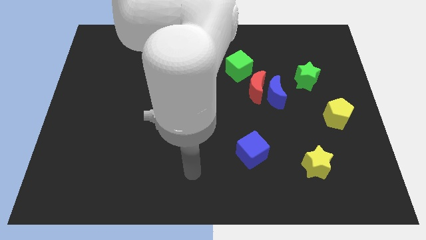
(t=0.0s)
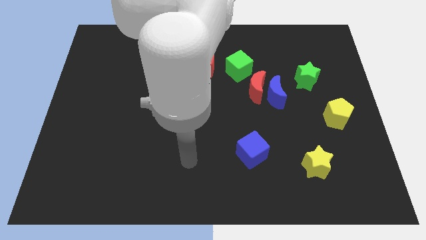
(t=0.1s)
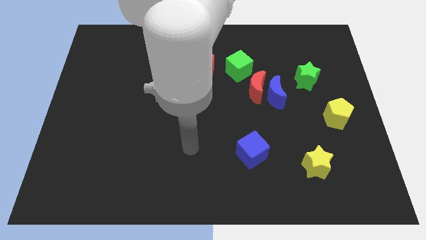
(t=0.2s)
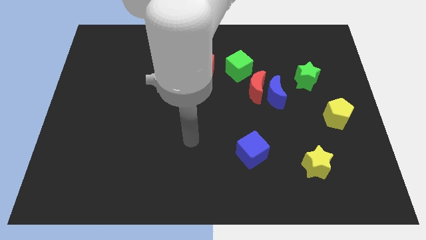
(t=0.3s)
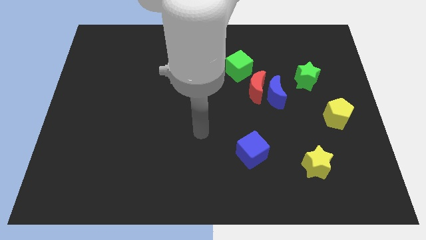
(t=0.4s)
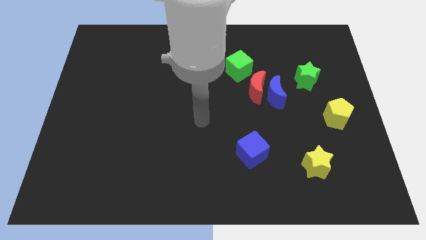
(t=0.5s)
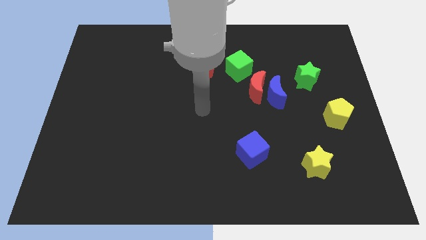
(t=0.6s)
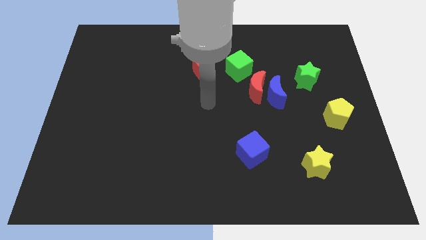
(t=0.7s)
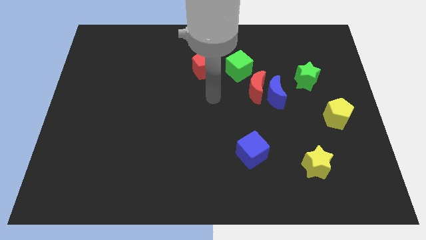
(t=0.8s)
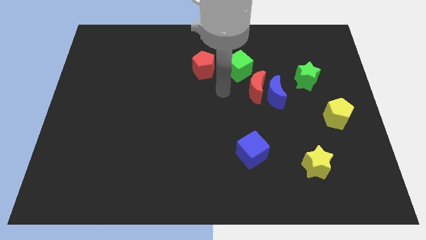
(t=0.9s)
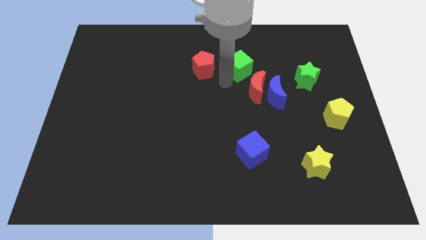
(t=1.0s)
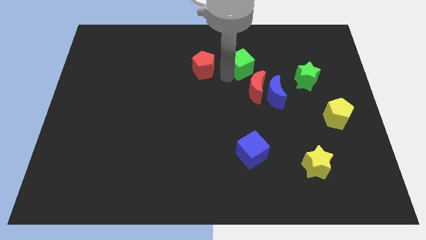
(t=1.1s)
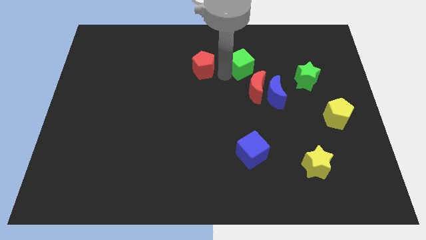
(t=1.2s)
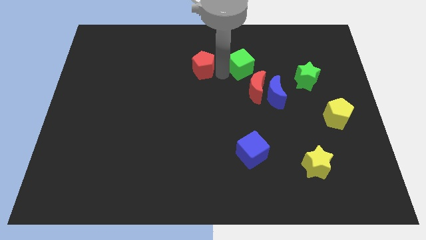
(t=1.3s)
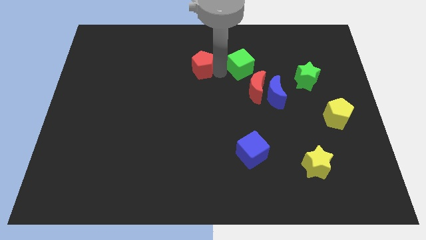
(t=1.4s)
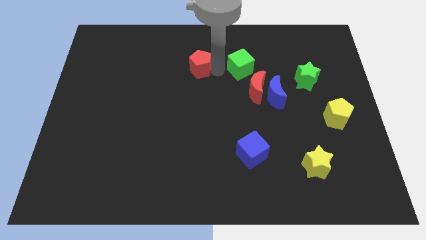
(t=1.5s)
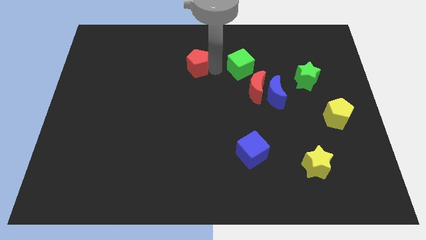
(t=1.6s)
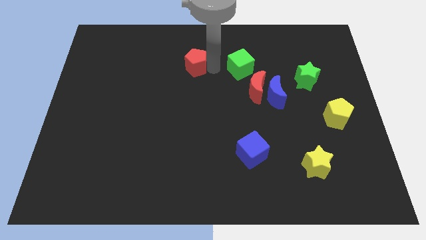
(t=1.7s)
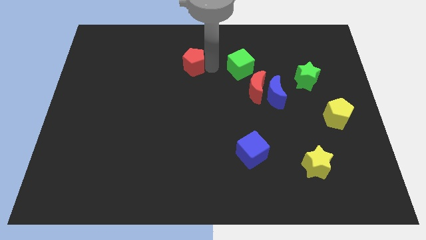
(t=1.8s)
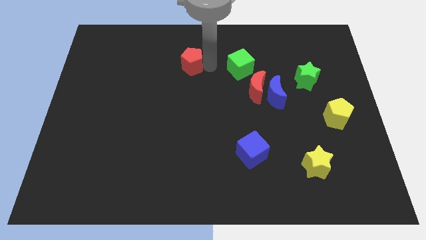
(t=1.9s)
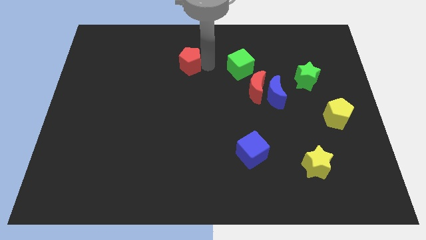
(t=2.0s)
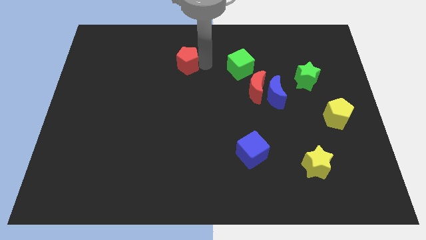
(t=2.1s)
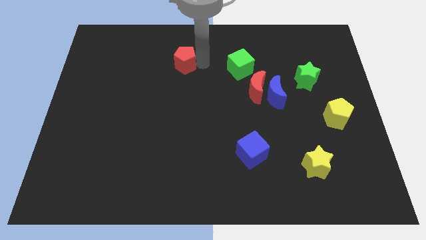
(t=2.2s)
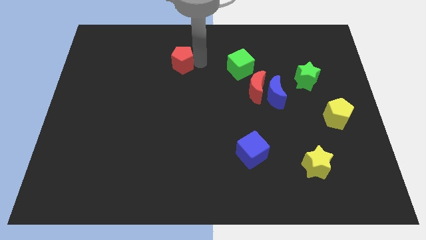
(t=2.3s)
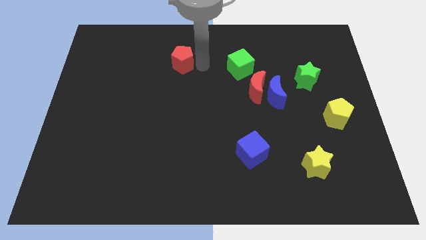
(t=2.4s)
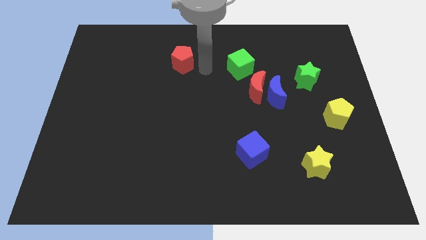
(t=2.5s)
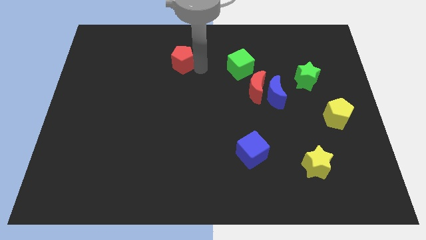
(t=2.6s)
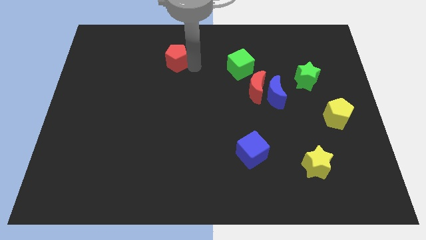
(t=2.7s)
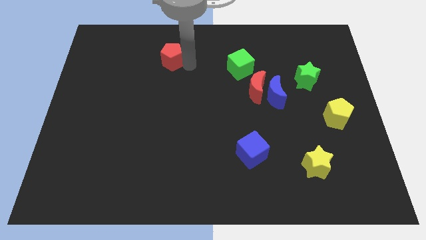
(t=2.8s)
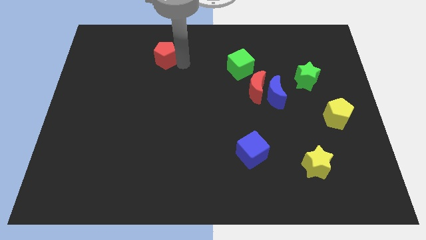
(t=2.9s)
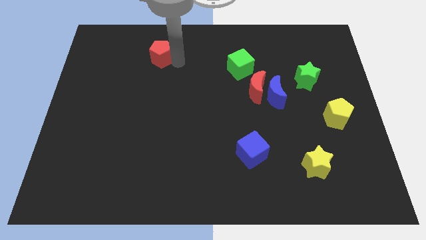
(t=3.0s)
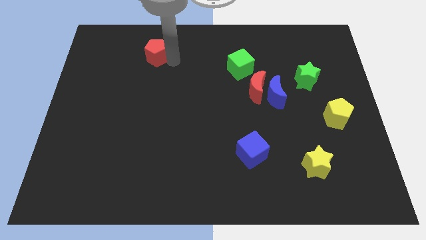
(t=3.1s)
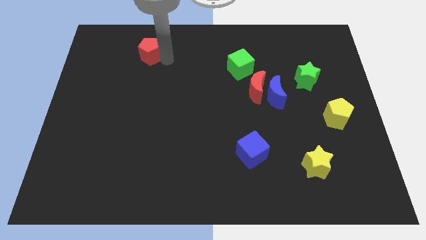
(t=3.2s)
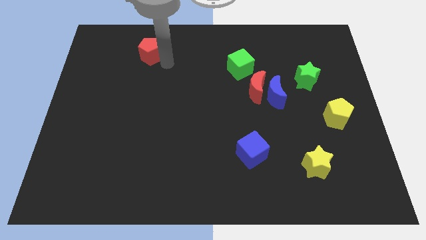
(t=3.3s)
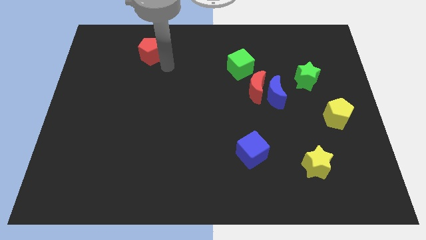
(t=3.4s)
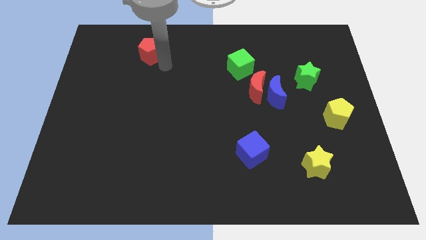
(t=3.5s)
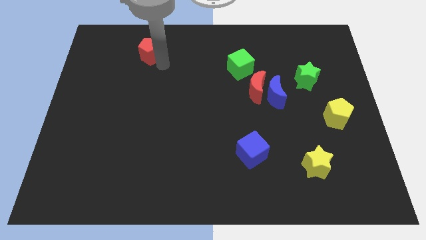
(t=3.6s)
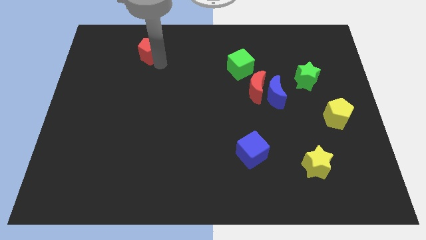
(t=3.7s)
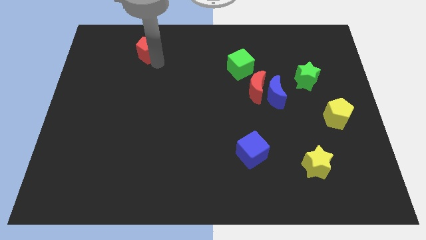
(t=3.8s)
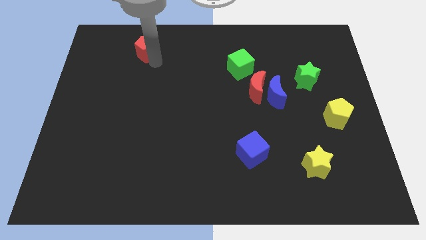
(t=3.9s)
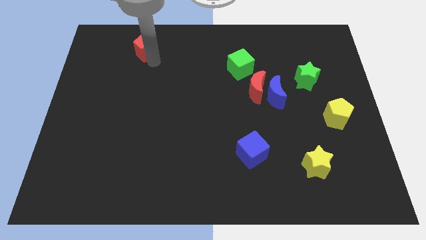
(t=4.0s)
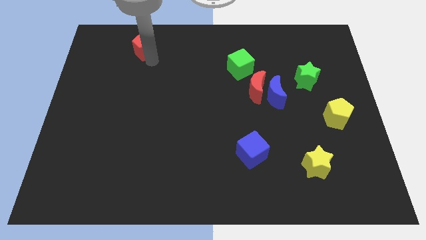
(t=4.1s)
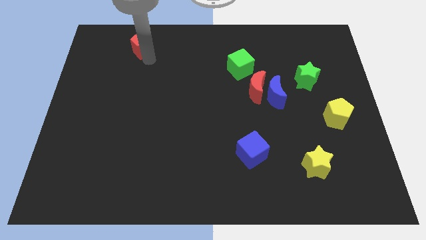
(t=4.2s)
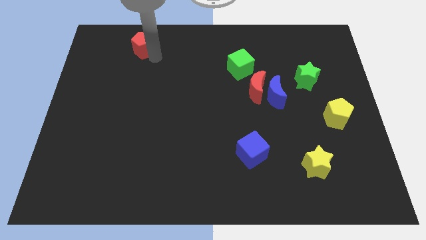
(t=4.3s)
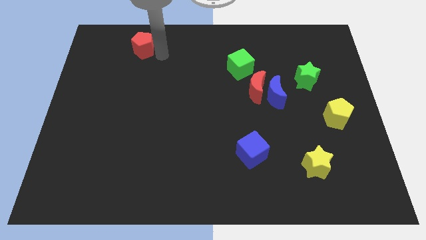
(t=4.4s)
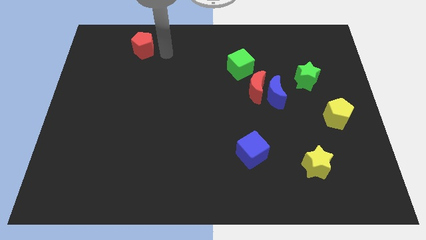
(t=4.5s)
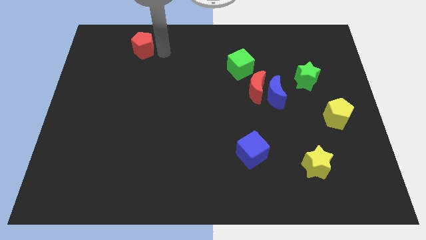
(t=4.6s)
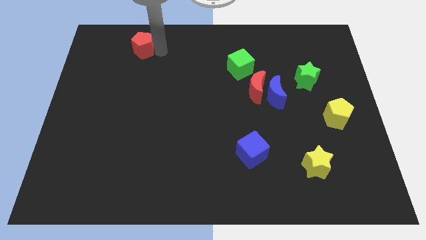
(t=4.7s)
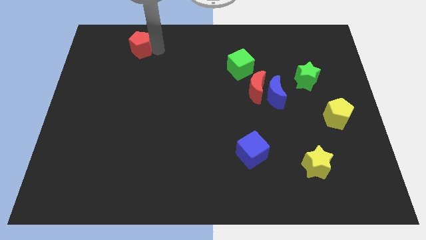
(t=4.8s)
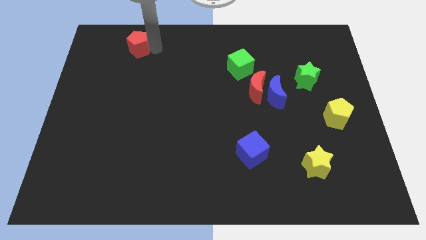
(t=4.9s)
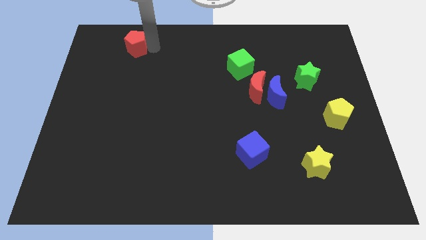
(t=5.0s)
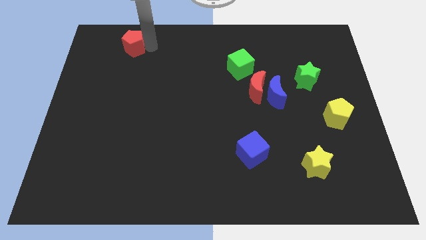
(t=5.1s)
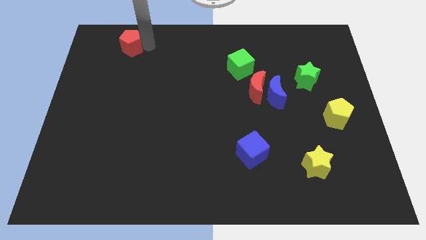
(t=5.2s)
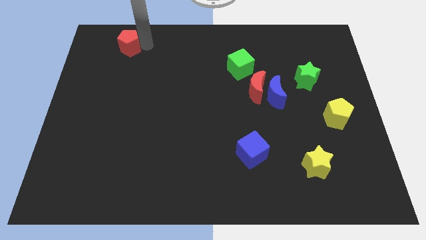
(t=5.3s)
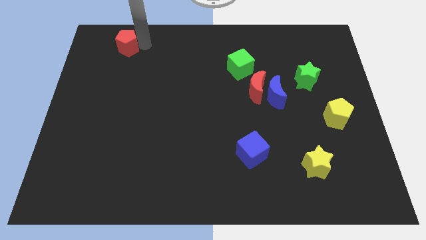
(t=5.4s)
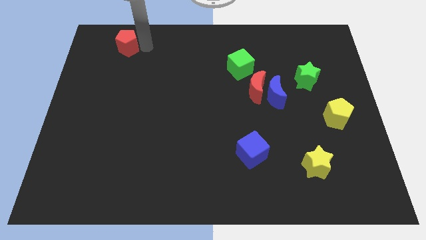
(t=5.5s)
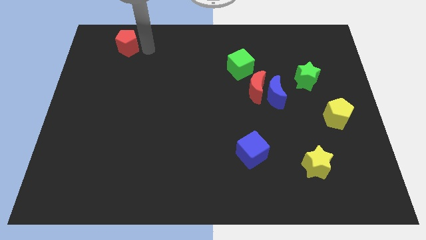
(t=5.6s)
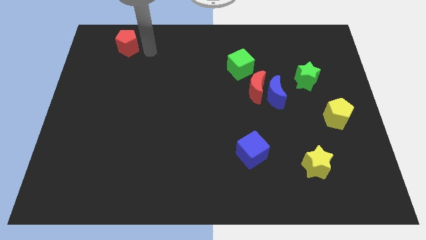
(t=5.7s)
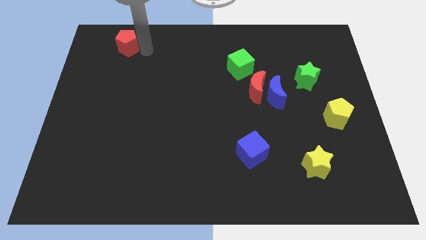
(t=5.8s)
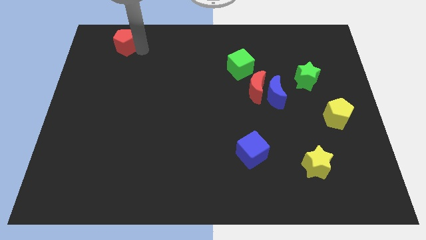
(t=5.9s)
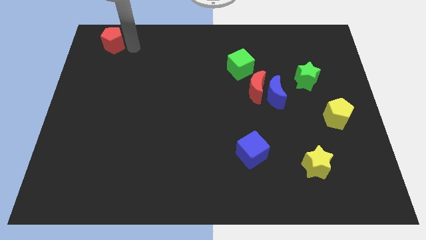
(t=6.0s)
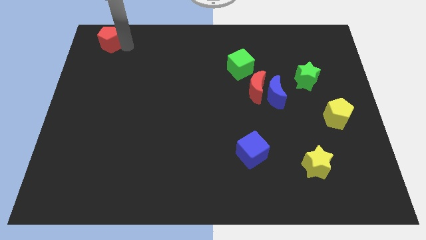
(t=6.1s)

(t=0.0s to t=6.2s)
put the red pentagon to the top left
